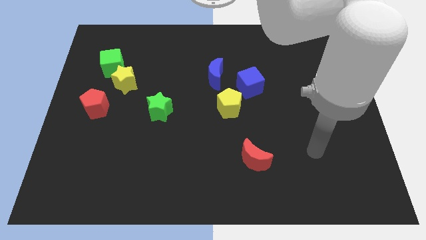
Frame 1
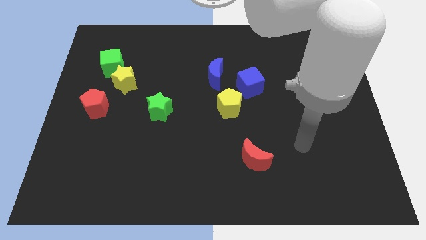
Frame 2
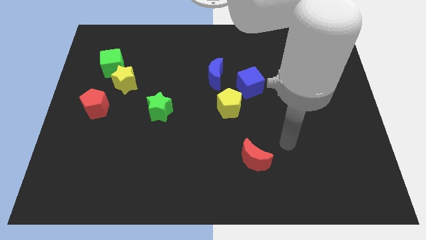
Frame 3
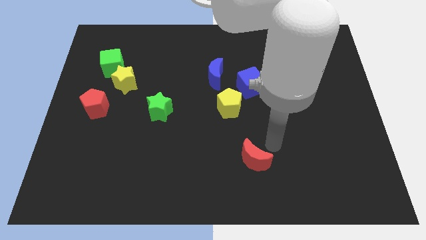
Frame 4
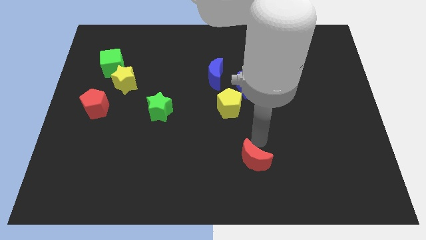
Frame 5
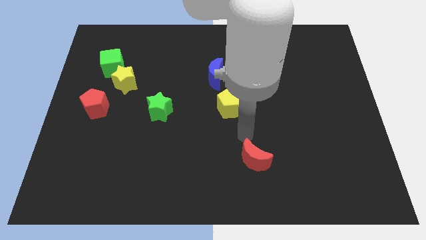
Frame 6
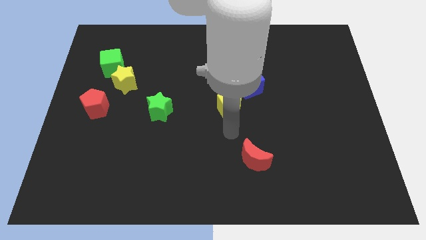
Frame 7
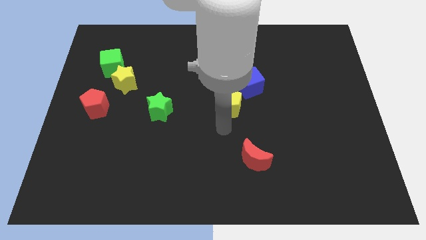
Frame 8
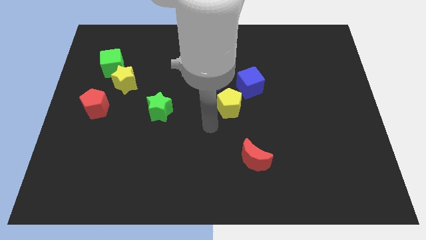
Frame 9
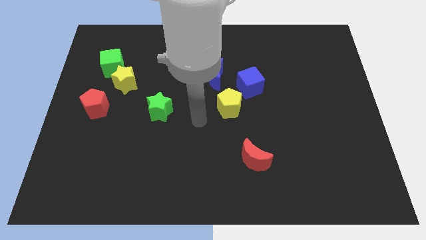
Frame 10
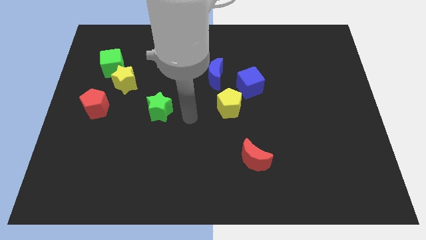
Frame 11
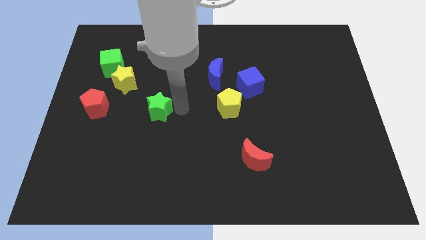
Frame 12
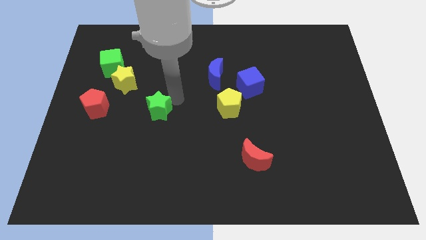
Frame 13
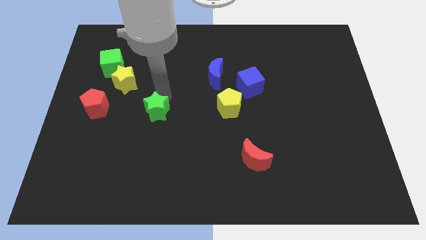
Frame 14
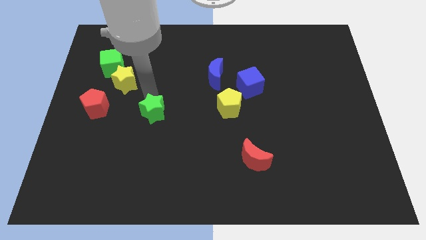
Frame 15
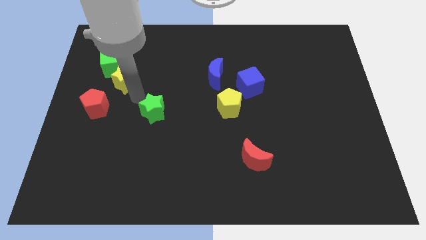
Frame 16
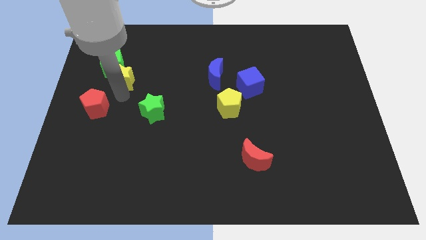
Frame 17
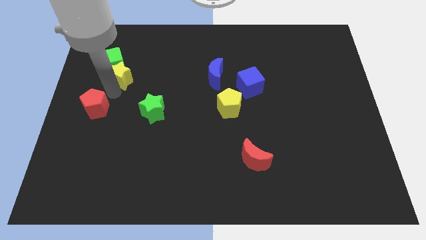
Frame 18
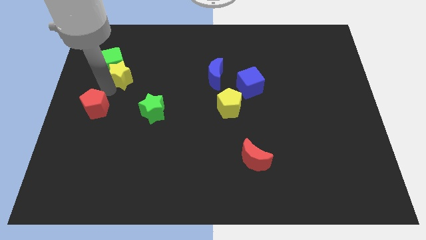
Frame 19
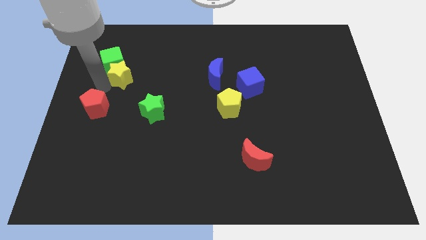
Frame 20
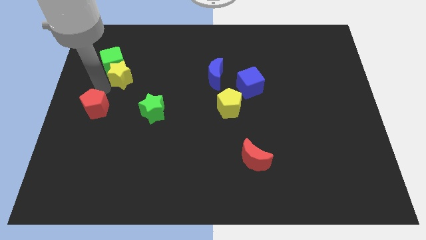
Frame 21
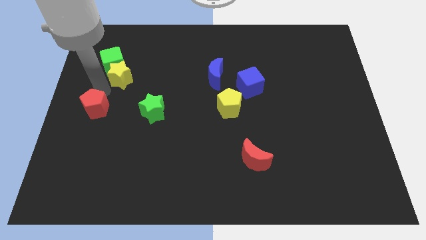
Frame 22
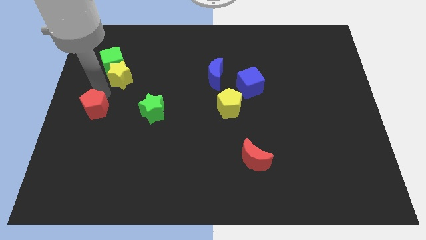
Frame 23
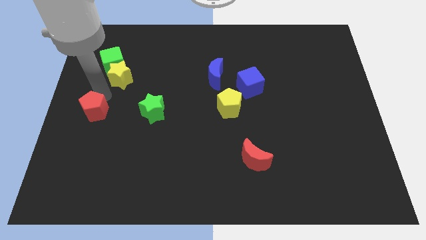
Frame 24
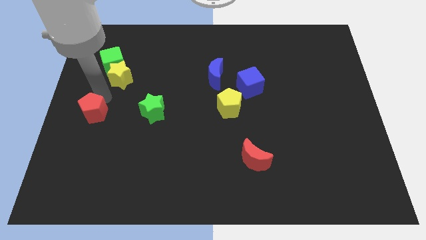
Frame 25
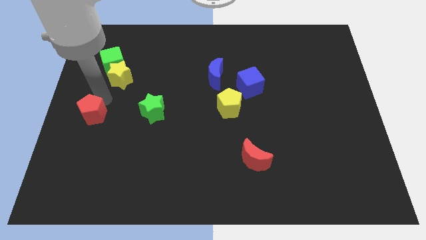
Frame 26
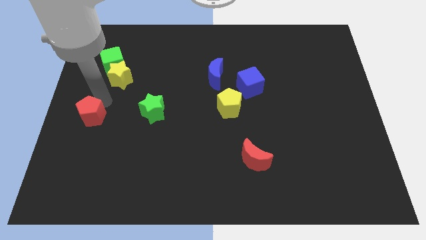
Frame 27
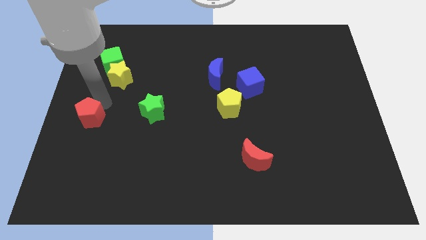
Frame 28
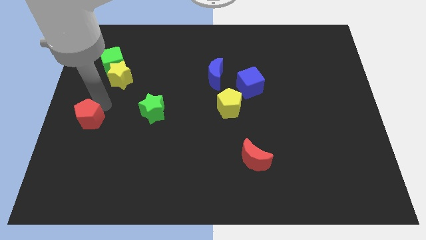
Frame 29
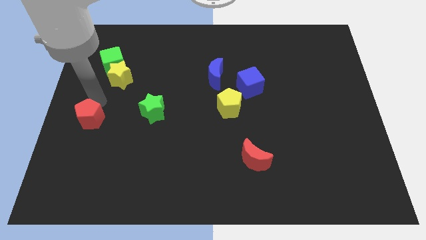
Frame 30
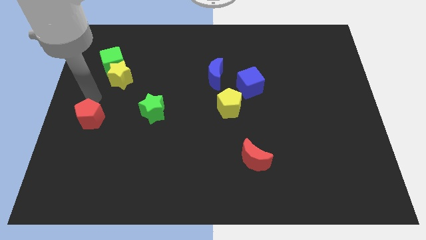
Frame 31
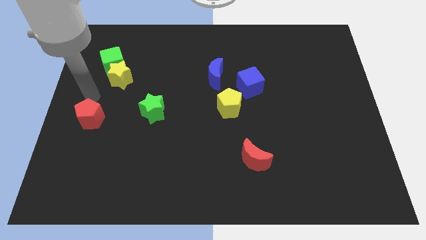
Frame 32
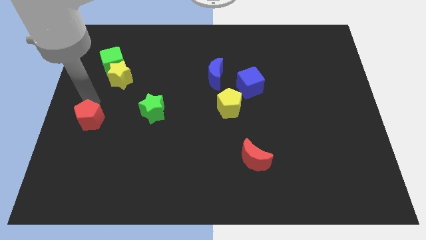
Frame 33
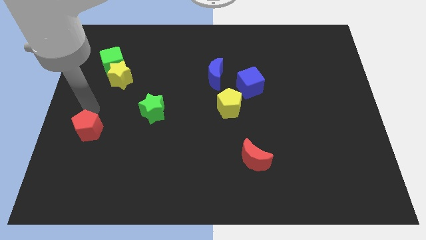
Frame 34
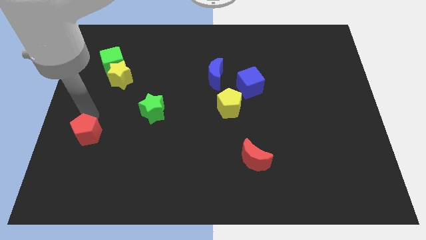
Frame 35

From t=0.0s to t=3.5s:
move the red pentagon downwards a little bit

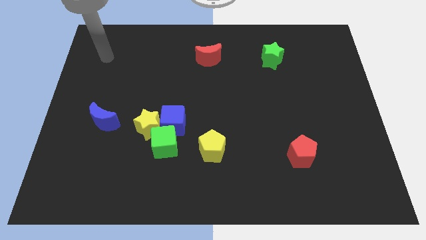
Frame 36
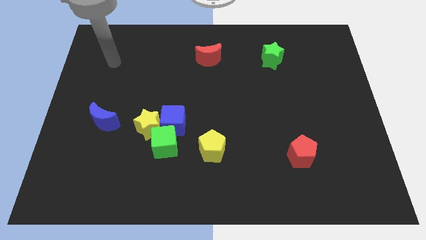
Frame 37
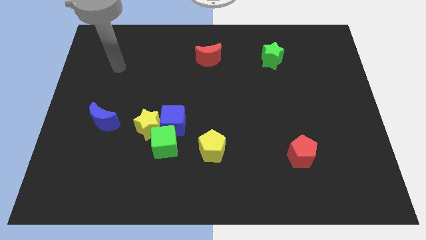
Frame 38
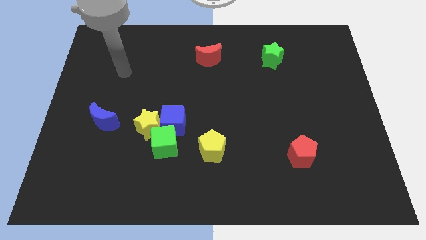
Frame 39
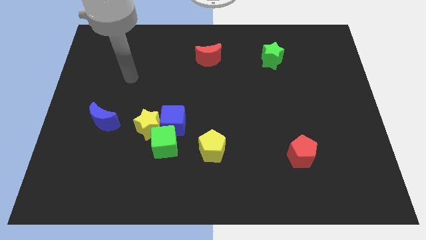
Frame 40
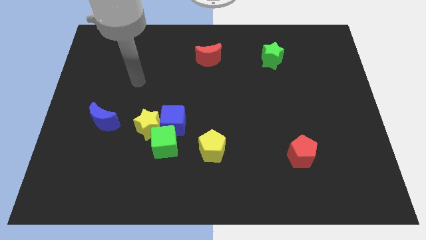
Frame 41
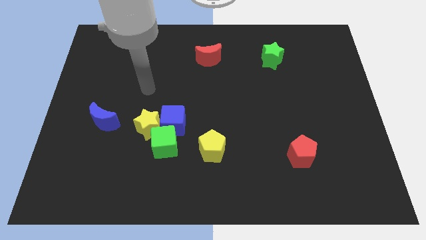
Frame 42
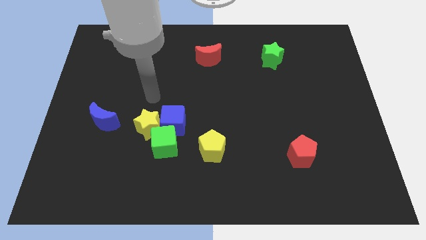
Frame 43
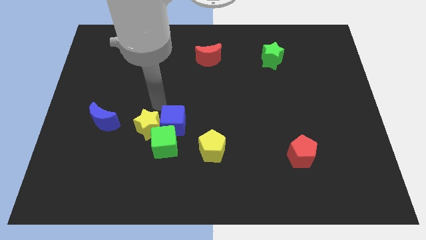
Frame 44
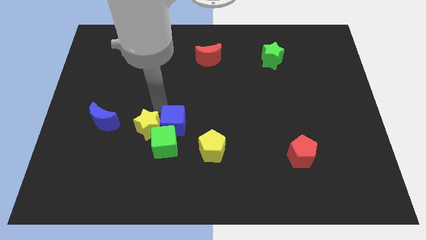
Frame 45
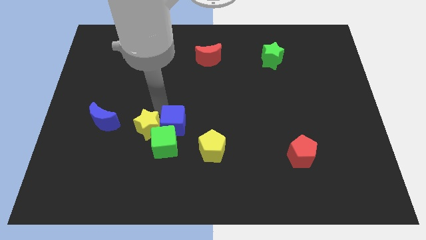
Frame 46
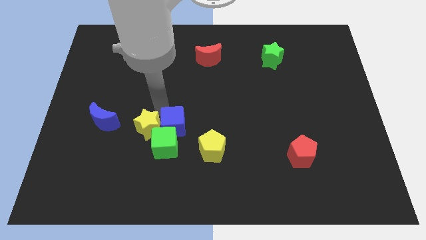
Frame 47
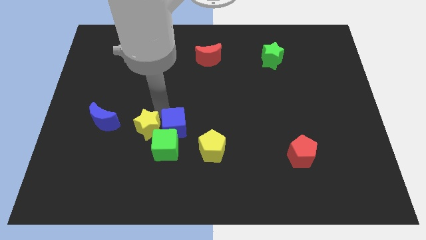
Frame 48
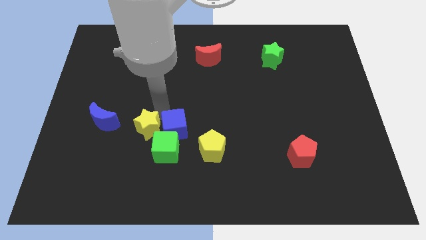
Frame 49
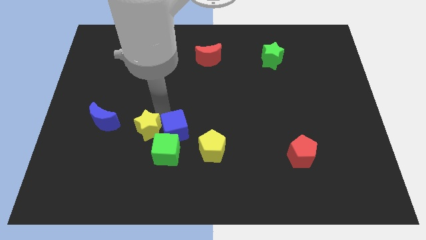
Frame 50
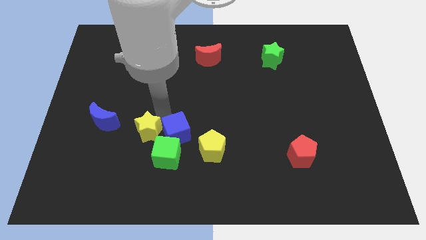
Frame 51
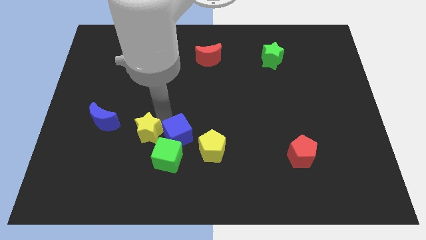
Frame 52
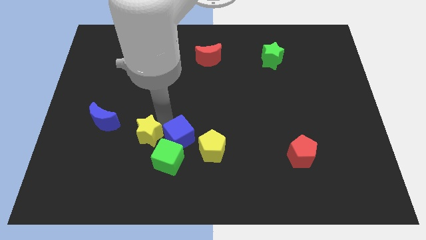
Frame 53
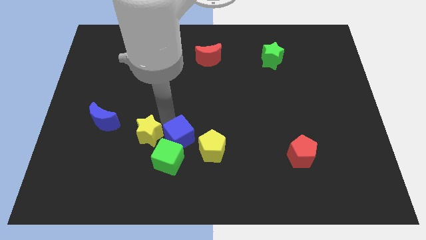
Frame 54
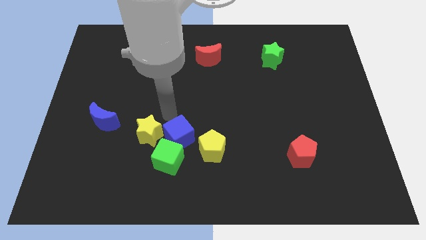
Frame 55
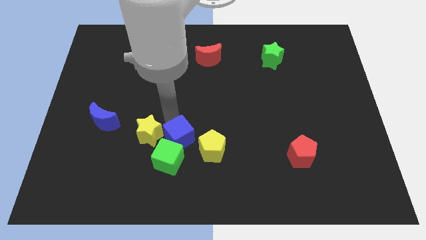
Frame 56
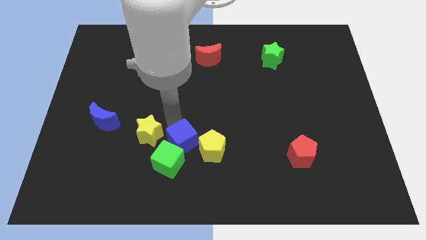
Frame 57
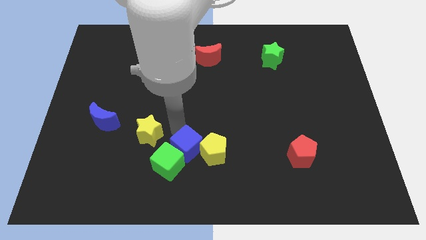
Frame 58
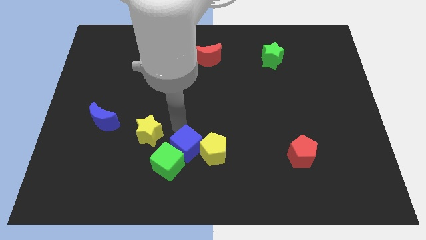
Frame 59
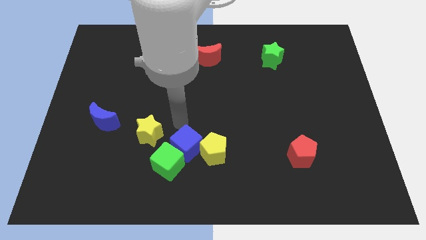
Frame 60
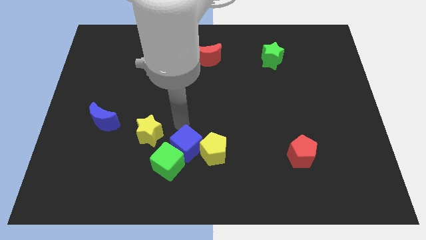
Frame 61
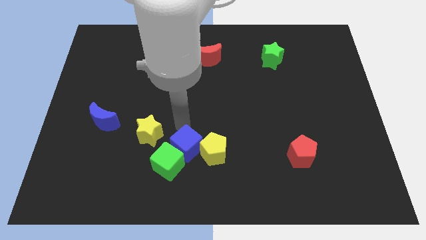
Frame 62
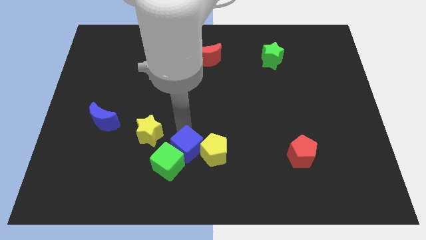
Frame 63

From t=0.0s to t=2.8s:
push the blue cube a bit downwards and then to the right

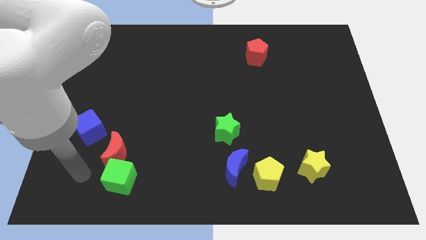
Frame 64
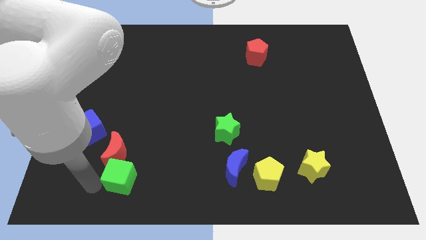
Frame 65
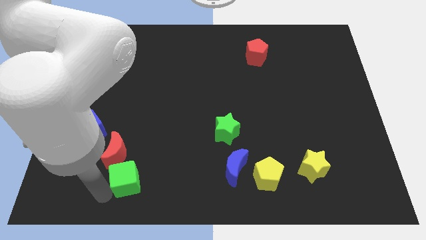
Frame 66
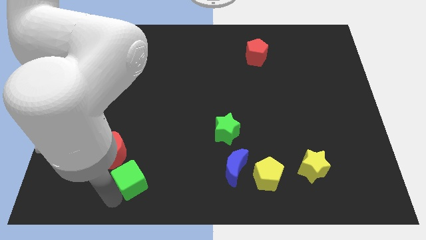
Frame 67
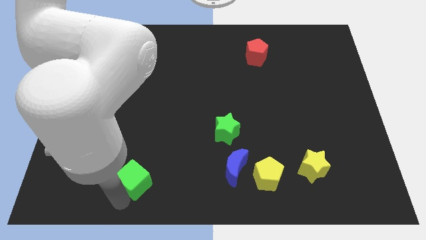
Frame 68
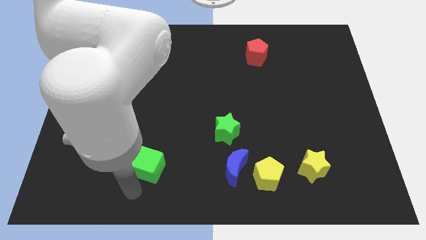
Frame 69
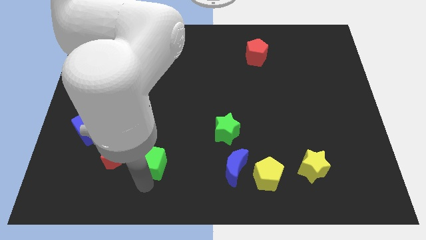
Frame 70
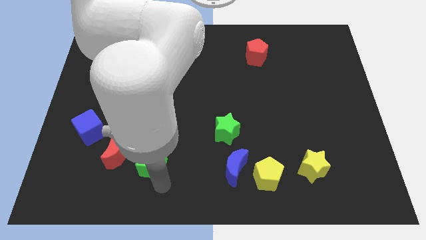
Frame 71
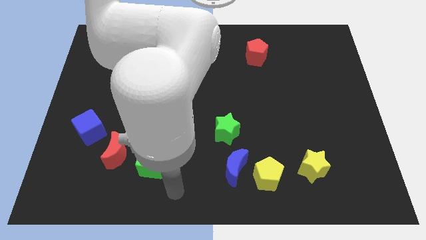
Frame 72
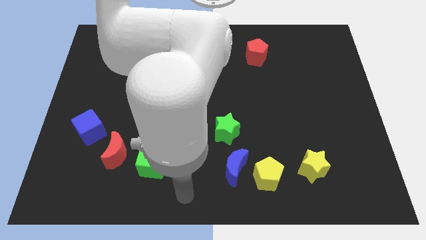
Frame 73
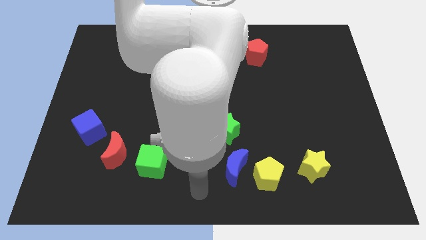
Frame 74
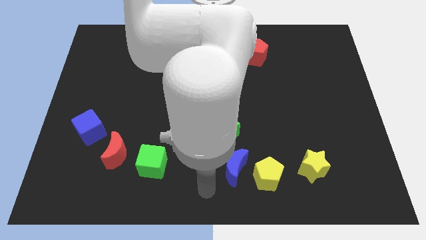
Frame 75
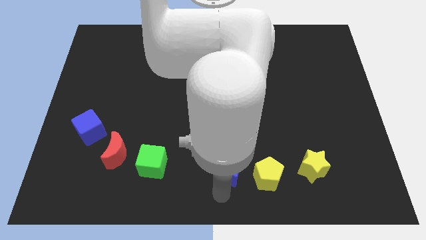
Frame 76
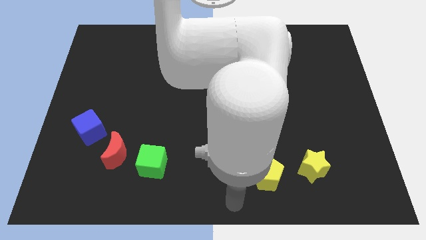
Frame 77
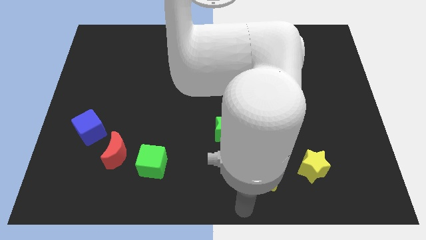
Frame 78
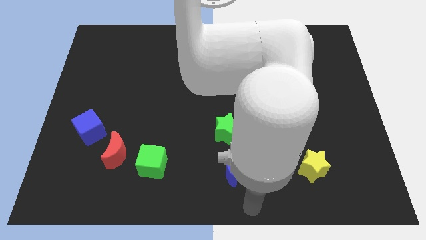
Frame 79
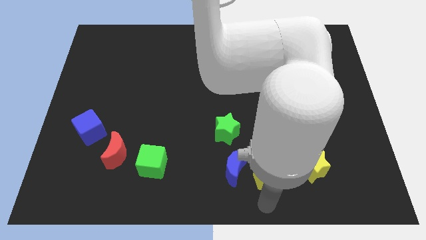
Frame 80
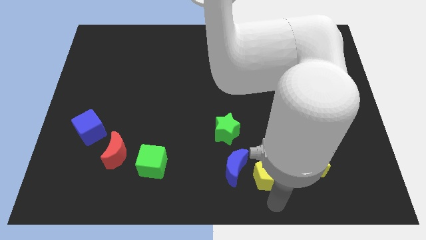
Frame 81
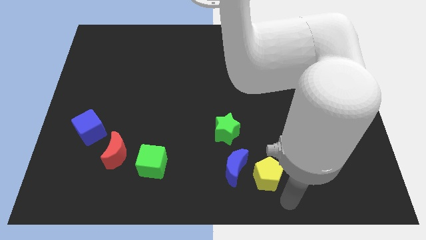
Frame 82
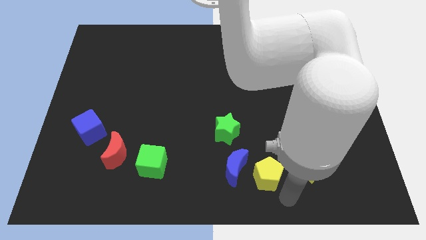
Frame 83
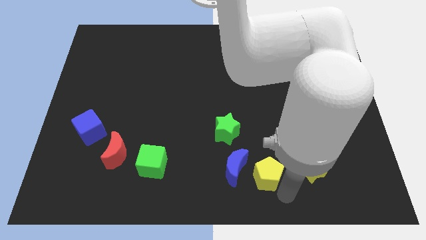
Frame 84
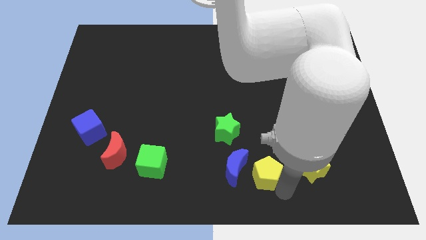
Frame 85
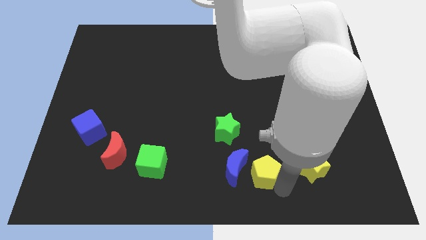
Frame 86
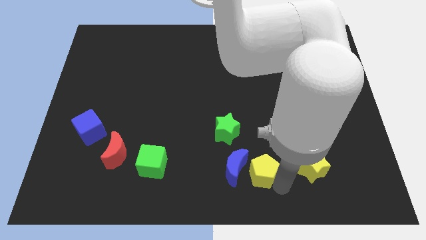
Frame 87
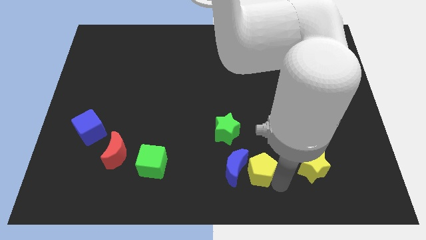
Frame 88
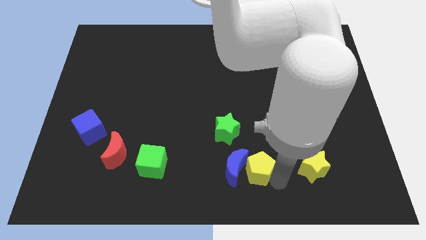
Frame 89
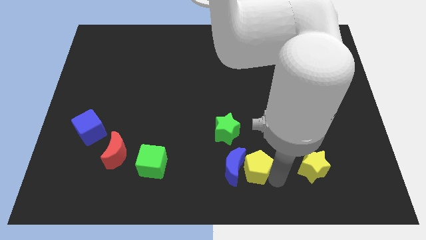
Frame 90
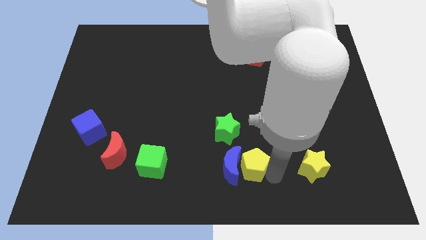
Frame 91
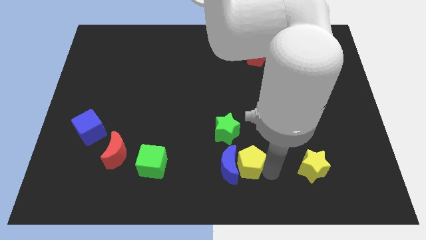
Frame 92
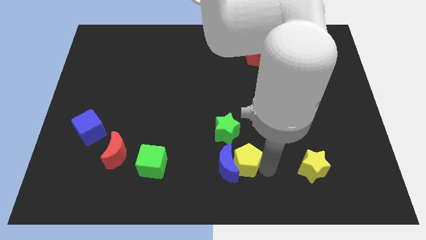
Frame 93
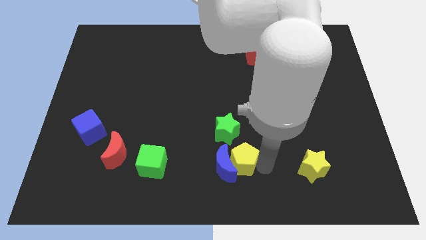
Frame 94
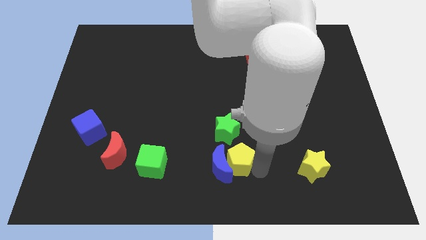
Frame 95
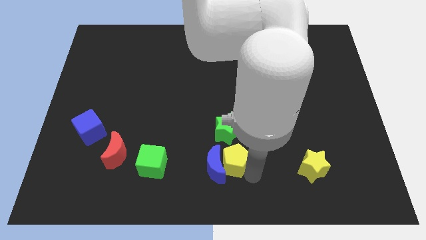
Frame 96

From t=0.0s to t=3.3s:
slightly move the yellow pentagon upwards and then left
